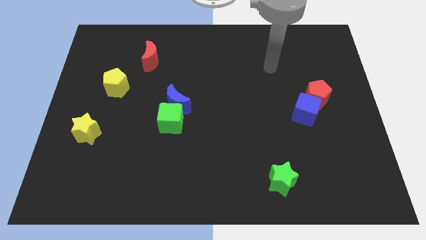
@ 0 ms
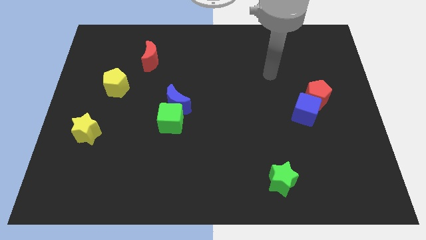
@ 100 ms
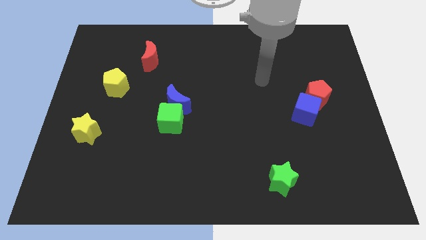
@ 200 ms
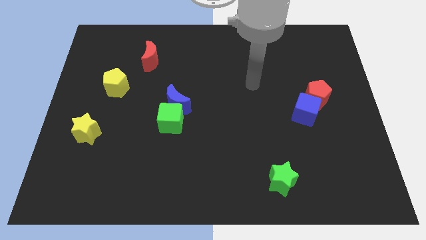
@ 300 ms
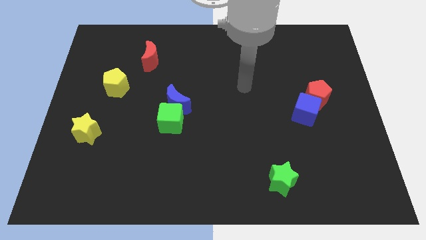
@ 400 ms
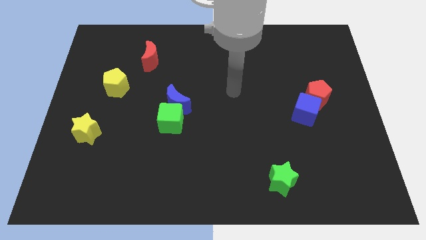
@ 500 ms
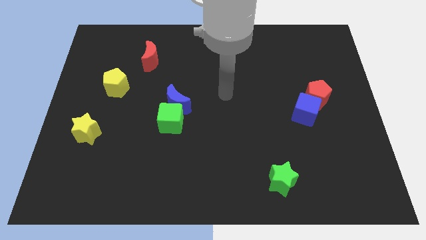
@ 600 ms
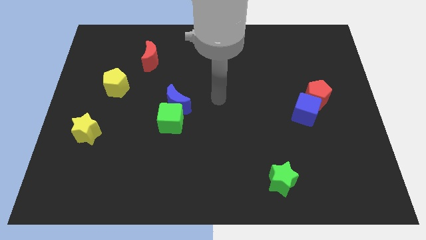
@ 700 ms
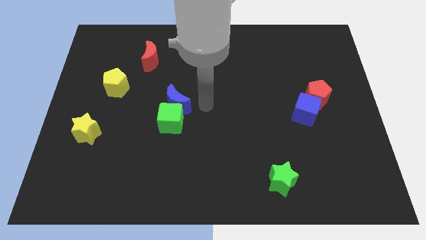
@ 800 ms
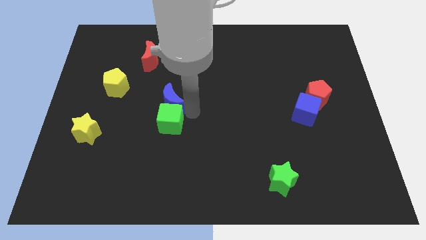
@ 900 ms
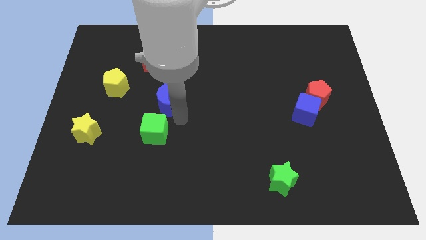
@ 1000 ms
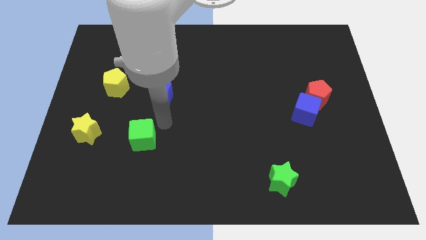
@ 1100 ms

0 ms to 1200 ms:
separate the blue moon from the green cube

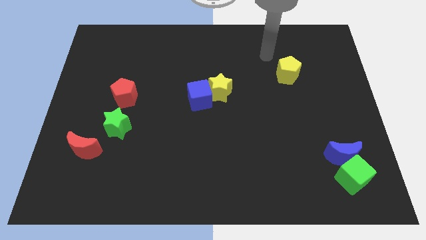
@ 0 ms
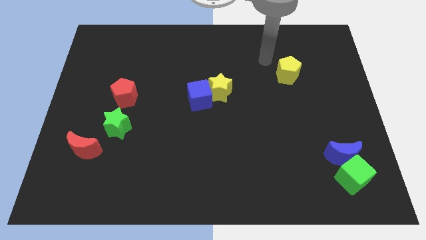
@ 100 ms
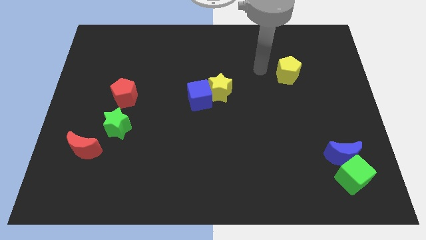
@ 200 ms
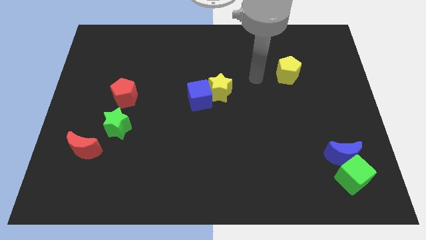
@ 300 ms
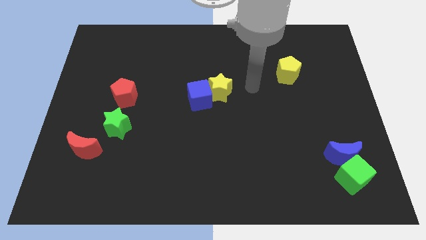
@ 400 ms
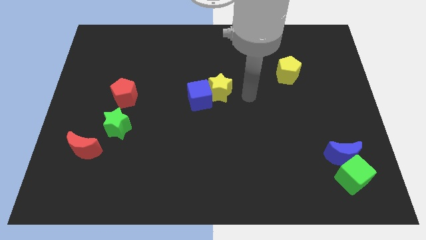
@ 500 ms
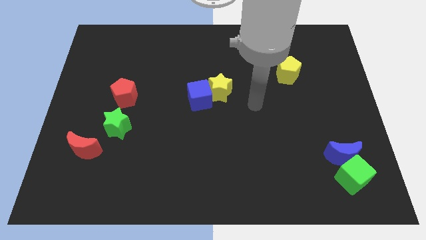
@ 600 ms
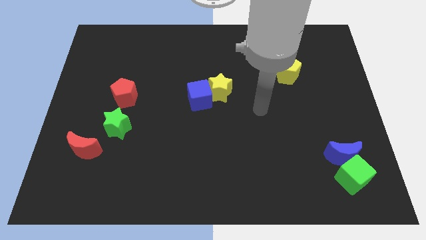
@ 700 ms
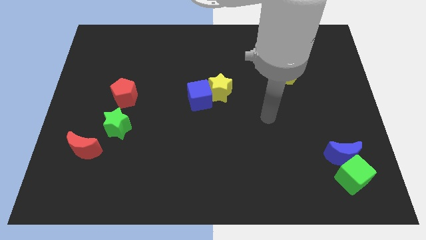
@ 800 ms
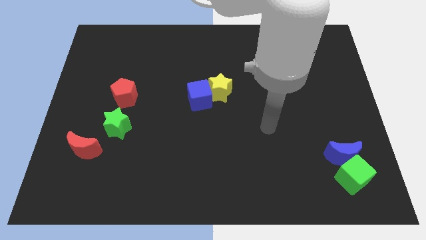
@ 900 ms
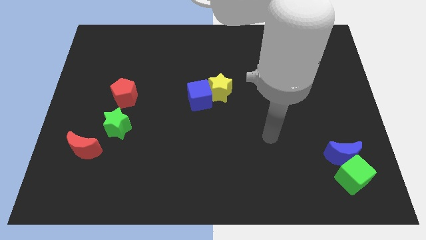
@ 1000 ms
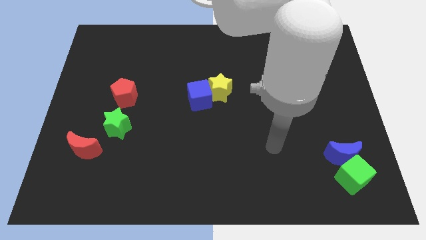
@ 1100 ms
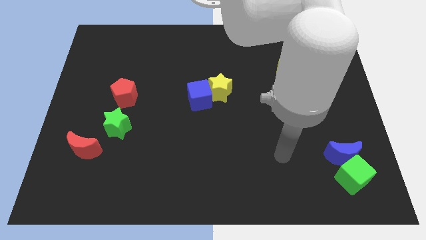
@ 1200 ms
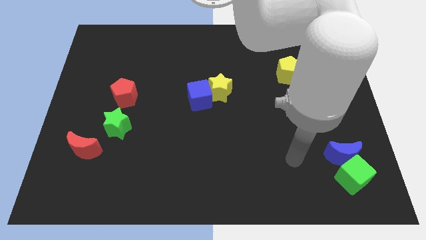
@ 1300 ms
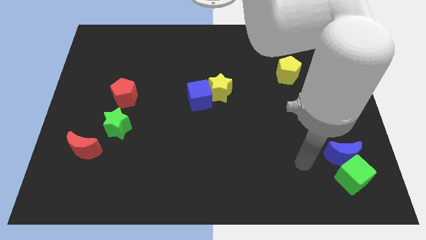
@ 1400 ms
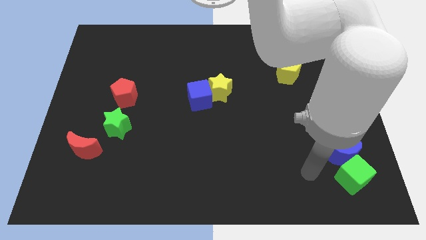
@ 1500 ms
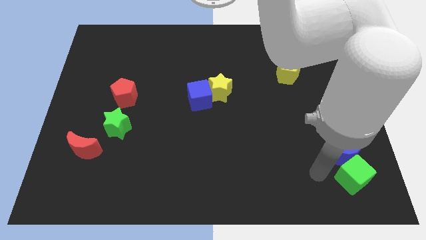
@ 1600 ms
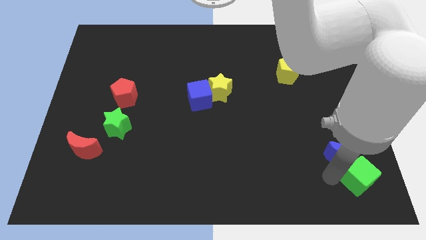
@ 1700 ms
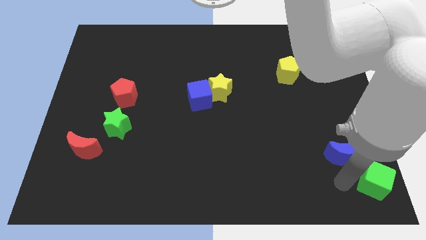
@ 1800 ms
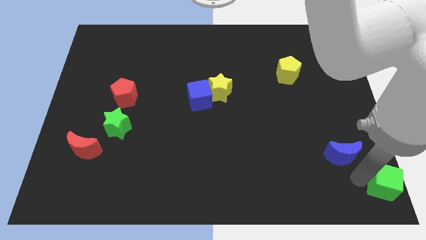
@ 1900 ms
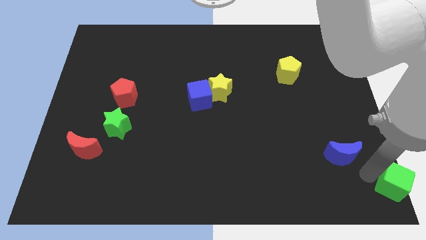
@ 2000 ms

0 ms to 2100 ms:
pull the blue moon apart from the green cube

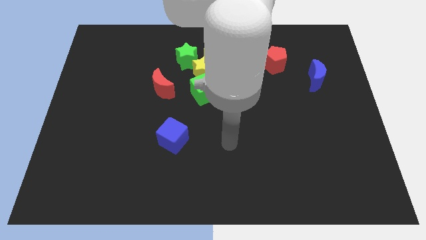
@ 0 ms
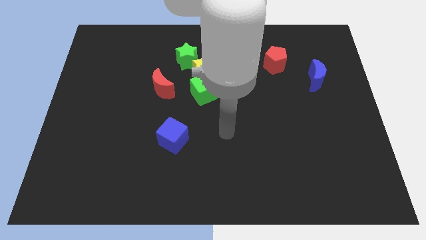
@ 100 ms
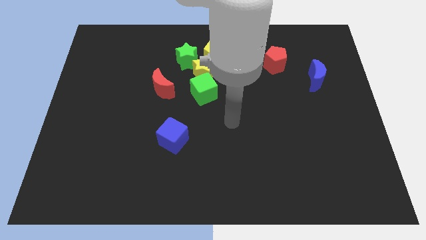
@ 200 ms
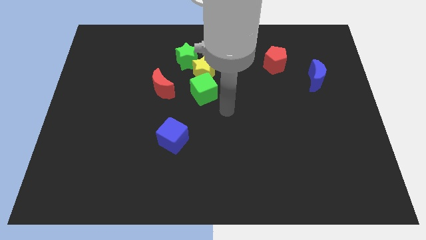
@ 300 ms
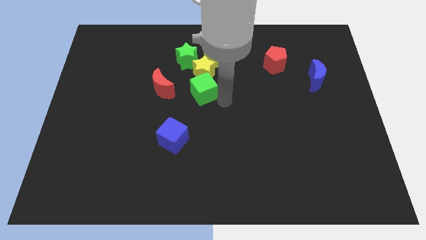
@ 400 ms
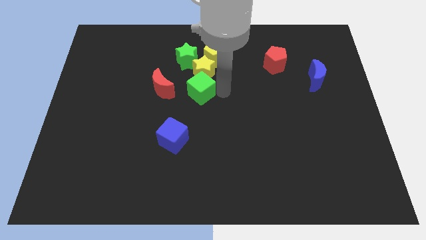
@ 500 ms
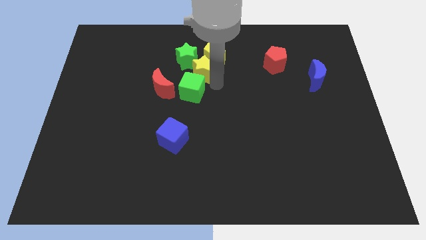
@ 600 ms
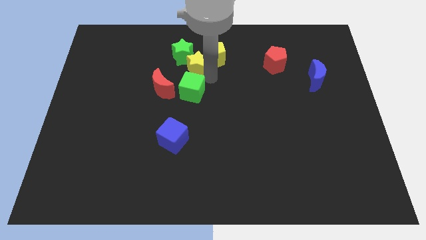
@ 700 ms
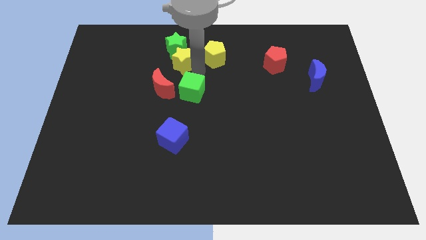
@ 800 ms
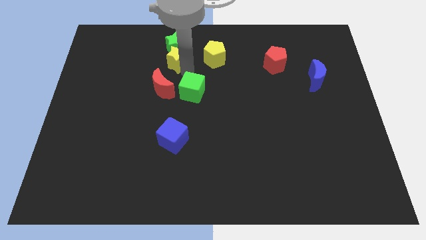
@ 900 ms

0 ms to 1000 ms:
separate the green cube from the yellow star

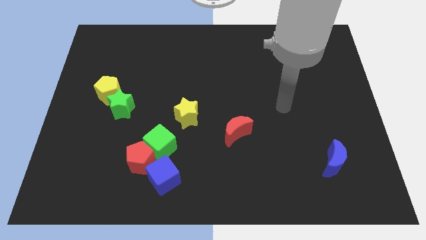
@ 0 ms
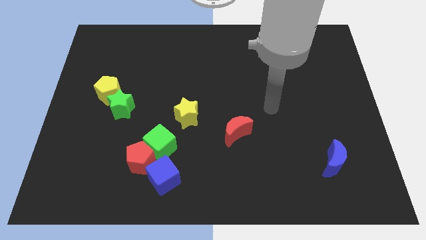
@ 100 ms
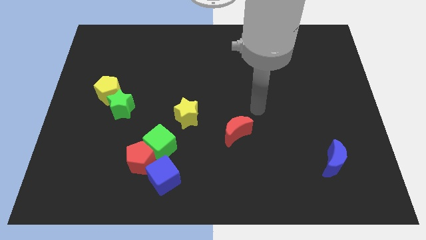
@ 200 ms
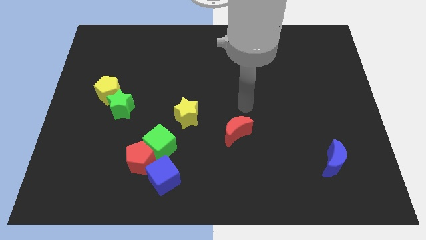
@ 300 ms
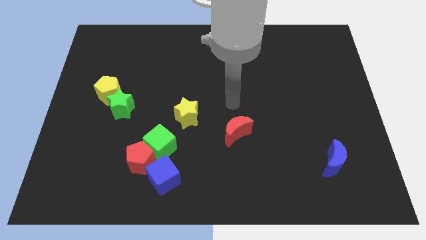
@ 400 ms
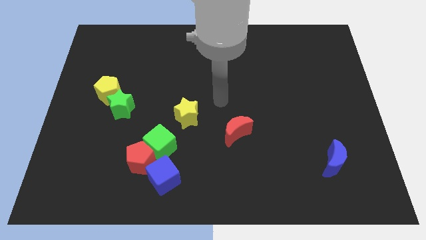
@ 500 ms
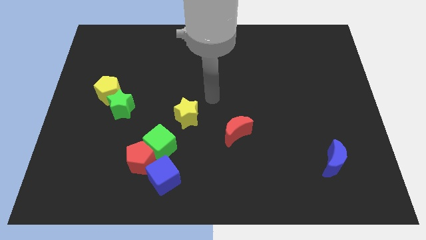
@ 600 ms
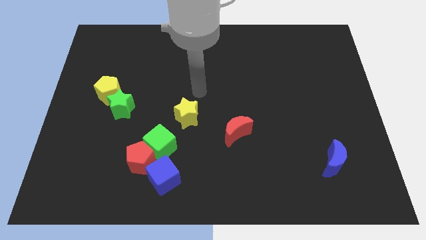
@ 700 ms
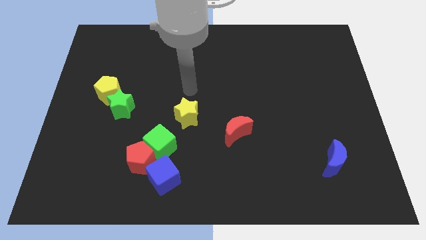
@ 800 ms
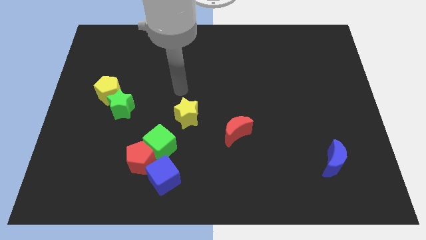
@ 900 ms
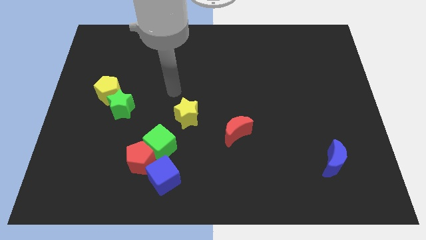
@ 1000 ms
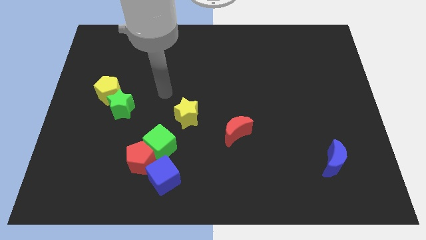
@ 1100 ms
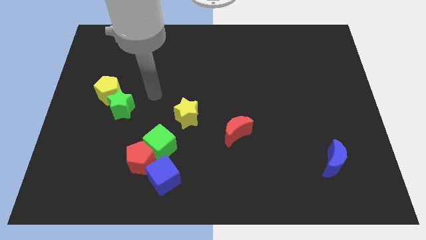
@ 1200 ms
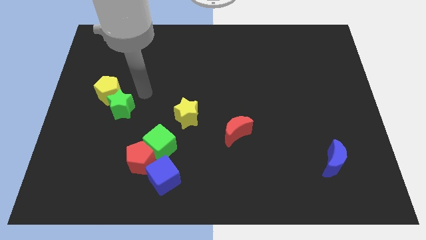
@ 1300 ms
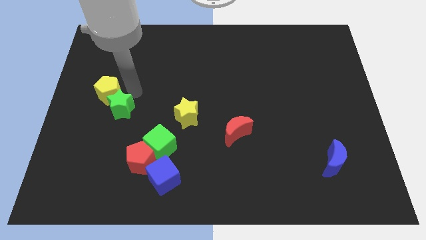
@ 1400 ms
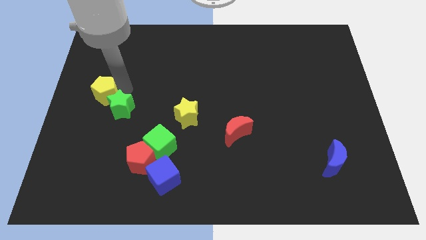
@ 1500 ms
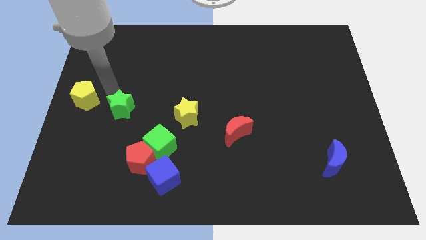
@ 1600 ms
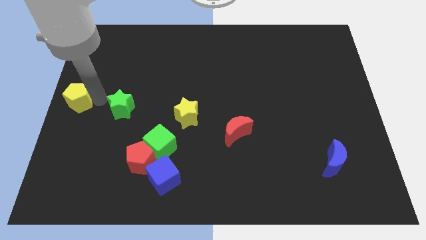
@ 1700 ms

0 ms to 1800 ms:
separate the green star from the yellow pentagon

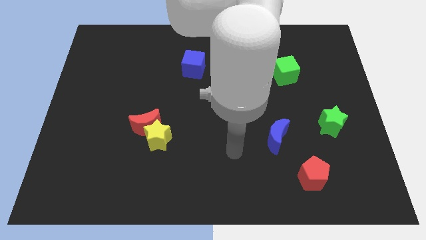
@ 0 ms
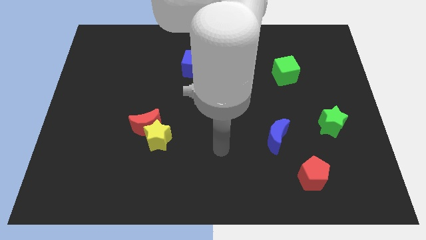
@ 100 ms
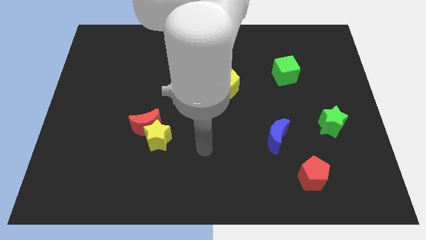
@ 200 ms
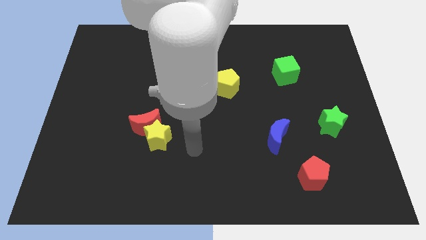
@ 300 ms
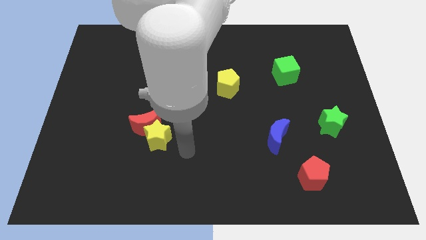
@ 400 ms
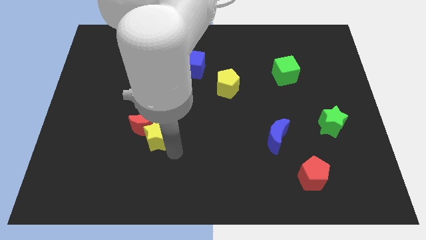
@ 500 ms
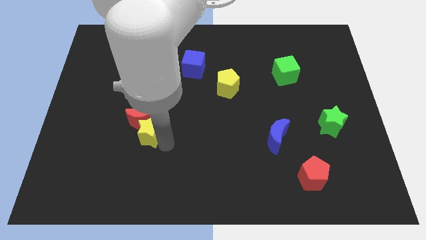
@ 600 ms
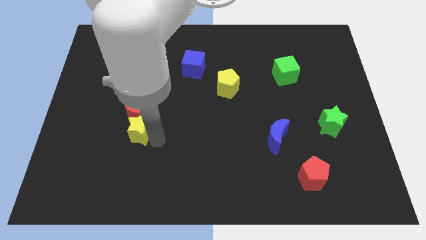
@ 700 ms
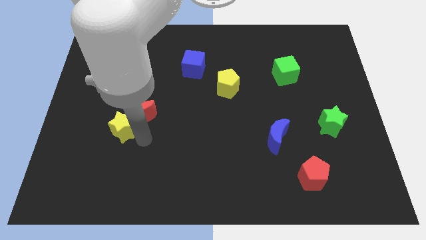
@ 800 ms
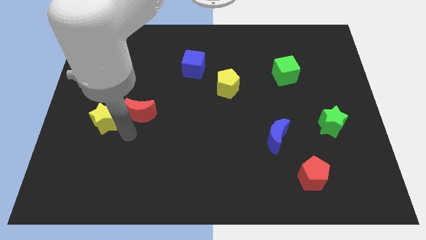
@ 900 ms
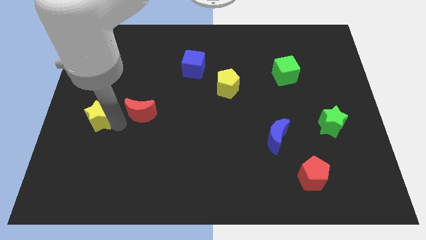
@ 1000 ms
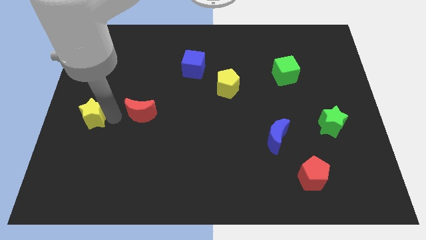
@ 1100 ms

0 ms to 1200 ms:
move the red moon away from the yellow star

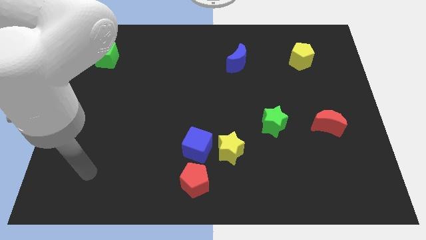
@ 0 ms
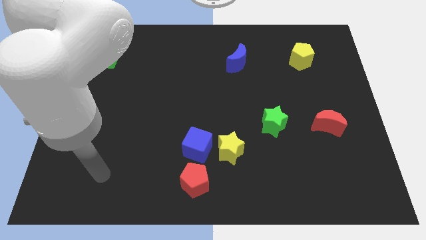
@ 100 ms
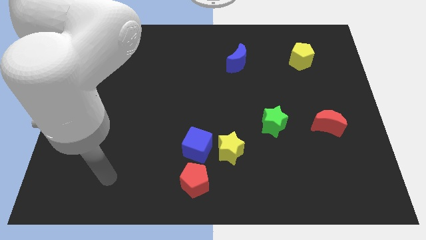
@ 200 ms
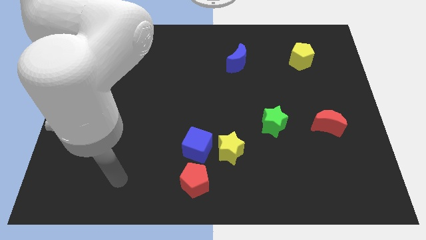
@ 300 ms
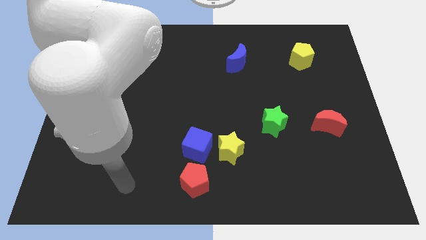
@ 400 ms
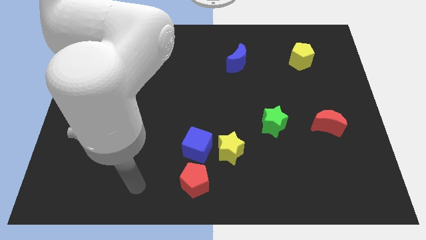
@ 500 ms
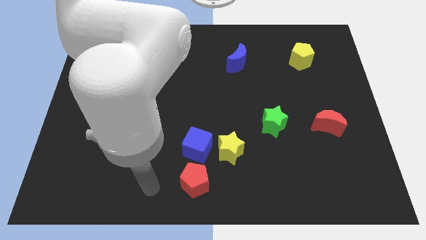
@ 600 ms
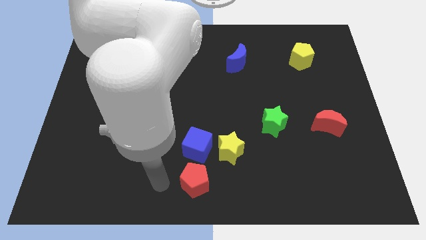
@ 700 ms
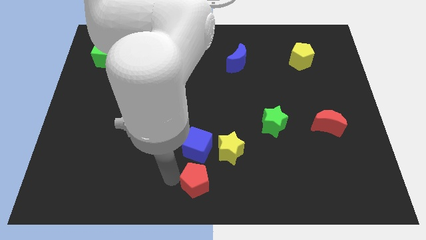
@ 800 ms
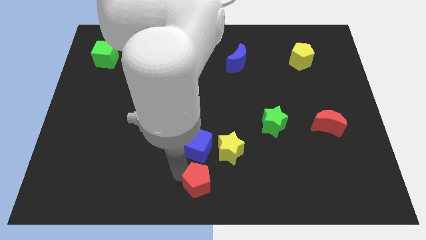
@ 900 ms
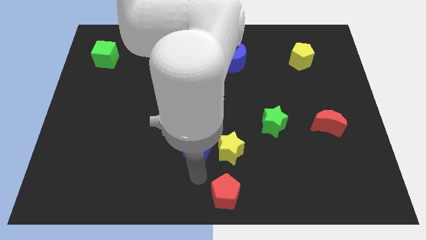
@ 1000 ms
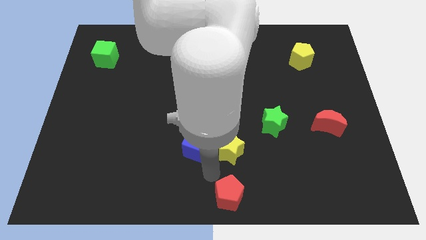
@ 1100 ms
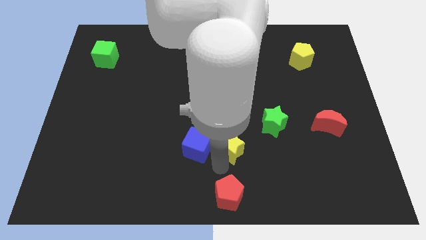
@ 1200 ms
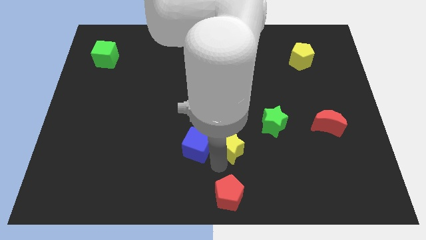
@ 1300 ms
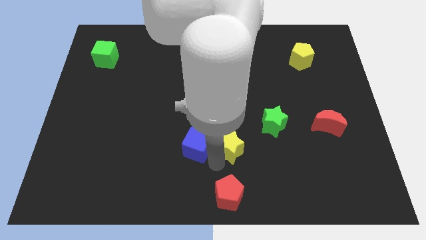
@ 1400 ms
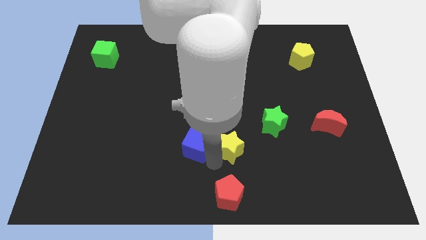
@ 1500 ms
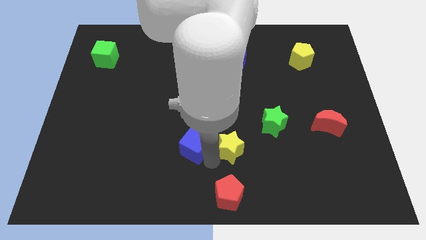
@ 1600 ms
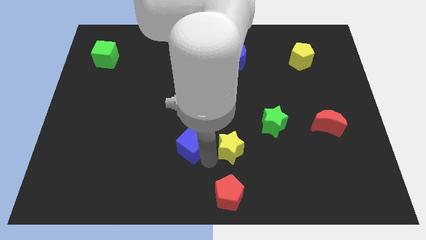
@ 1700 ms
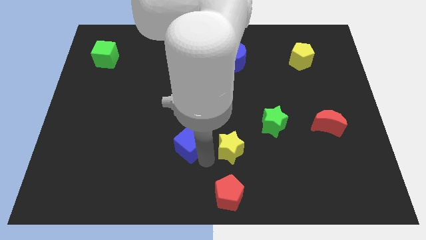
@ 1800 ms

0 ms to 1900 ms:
separate the blue cube from the yellow star and red pentagon
